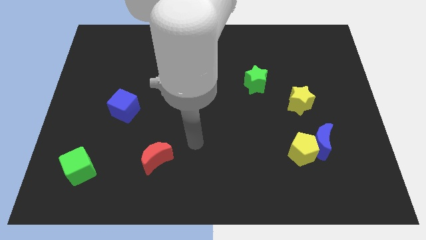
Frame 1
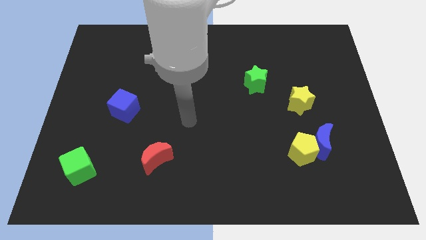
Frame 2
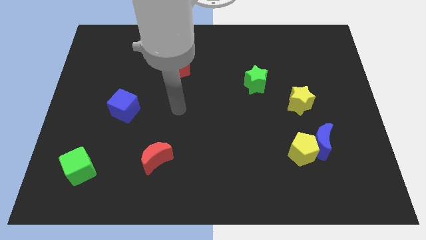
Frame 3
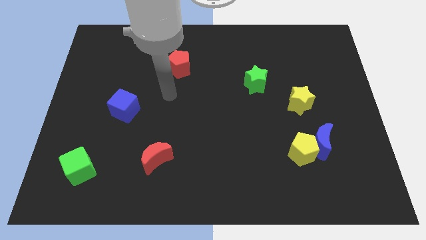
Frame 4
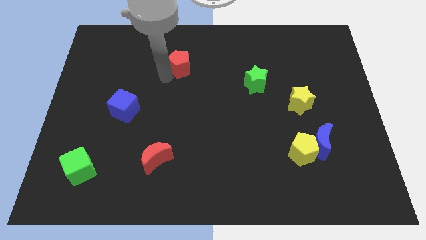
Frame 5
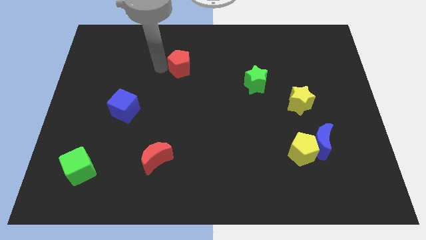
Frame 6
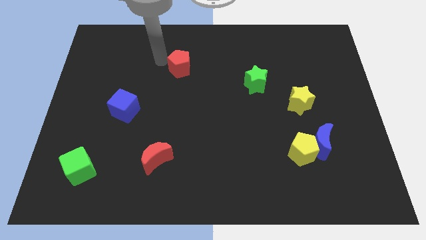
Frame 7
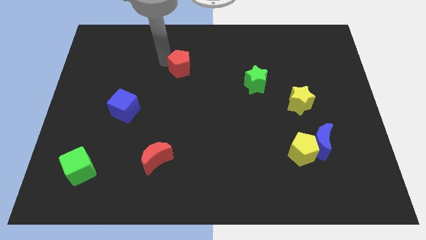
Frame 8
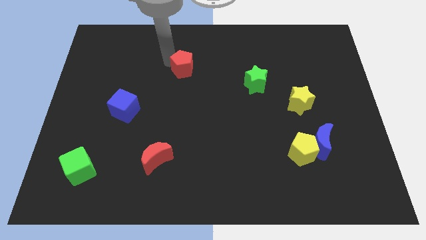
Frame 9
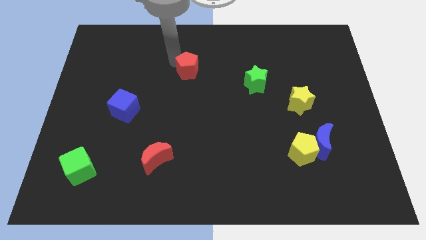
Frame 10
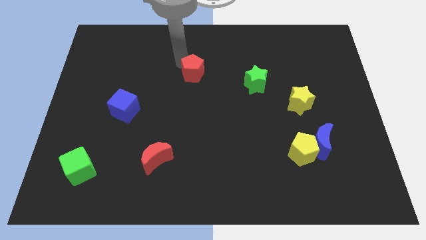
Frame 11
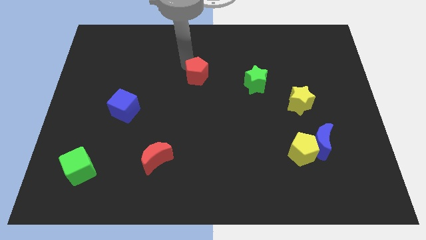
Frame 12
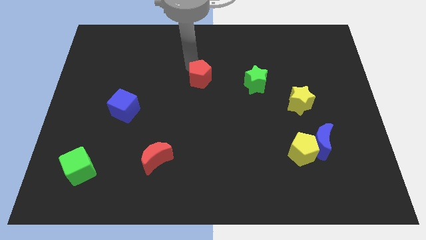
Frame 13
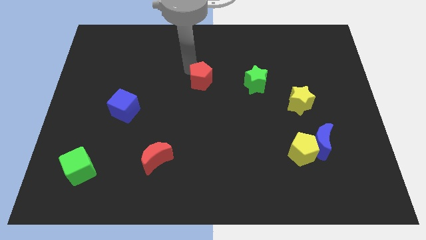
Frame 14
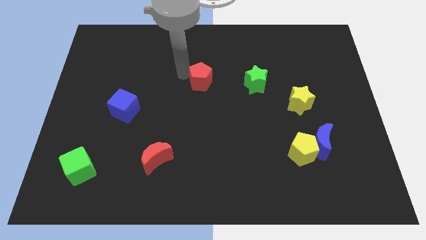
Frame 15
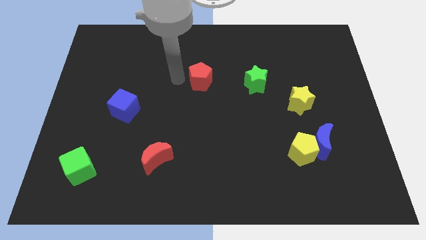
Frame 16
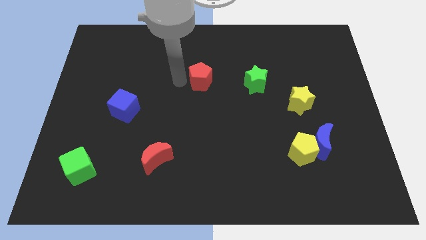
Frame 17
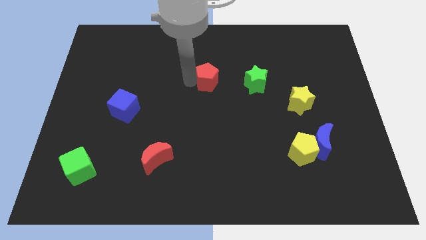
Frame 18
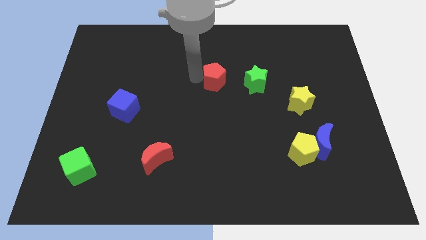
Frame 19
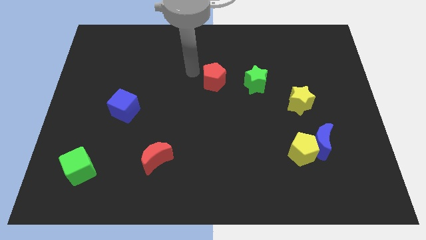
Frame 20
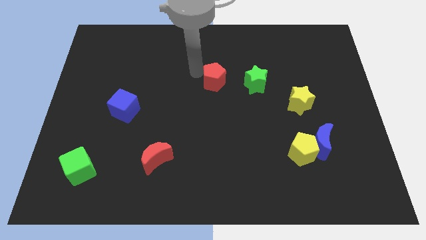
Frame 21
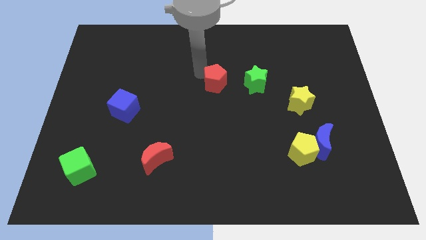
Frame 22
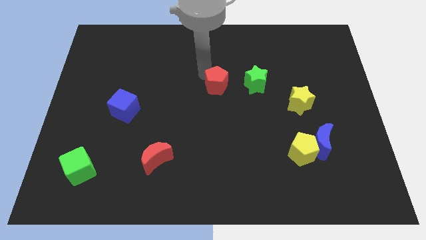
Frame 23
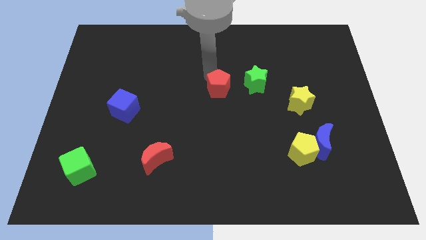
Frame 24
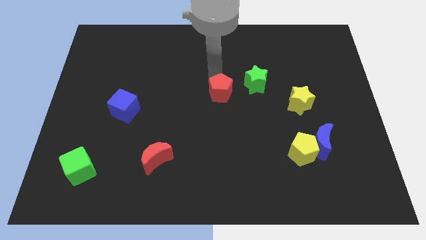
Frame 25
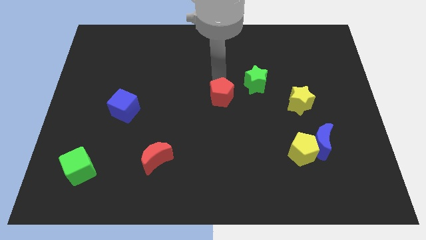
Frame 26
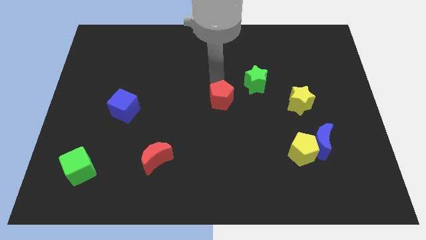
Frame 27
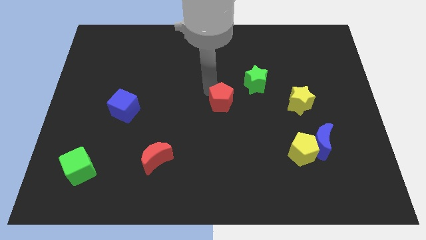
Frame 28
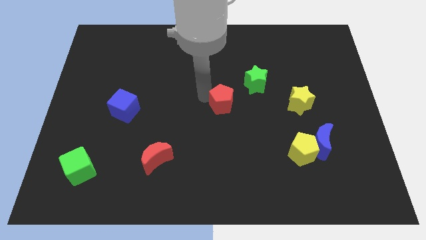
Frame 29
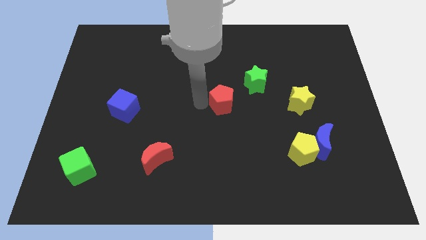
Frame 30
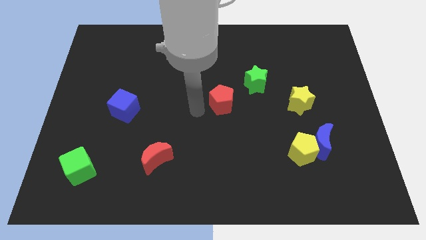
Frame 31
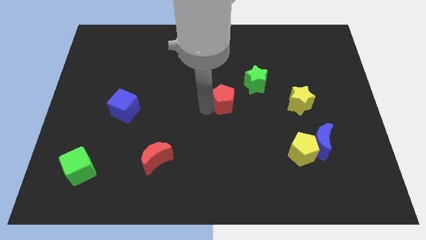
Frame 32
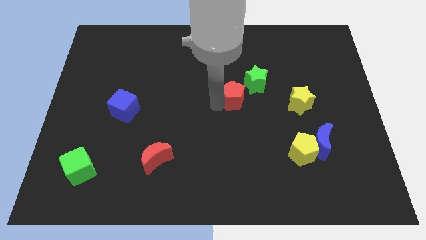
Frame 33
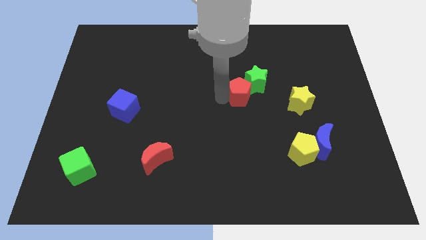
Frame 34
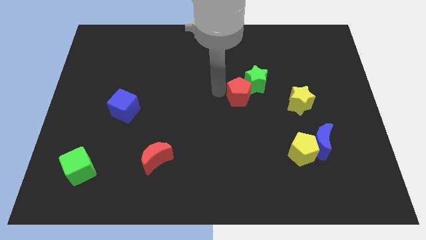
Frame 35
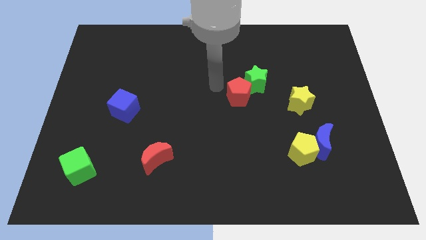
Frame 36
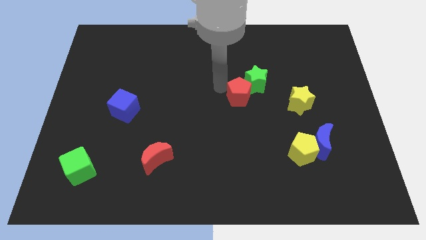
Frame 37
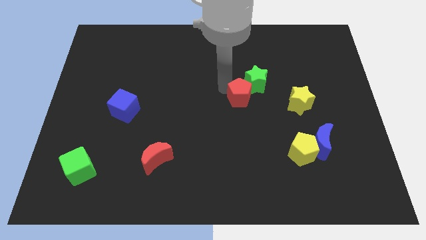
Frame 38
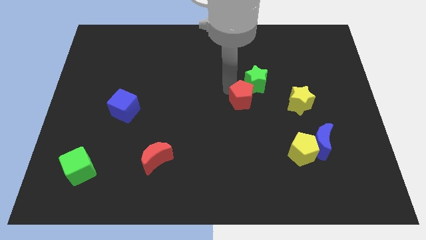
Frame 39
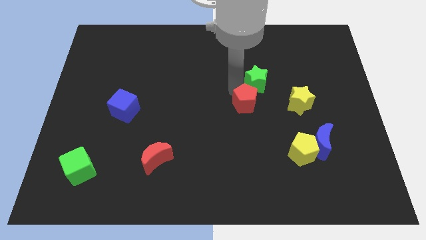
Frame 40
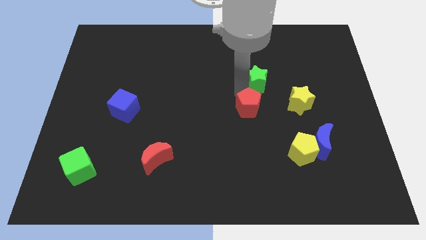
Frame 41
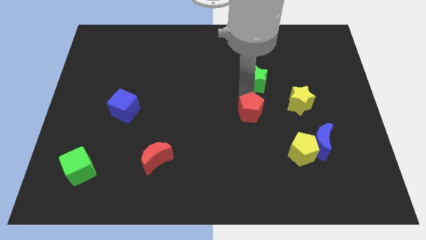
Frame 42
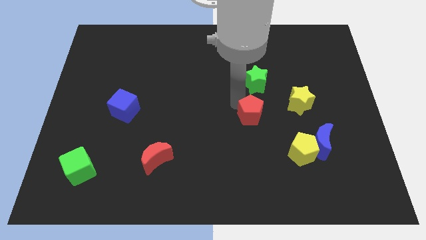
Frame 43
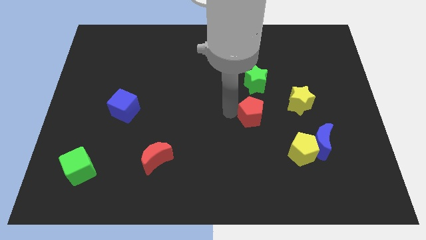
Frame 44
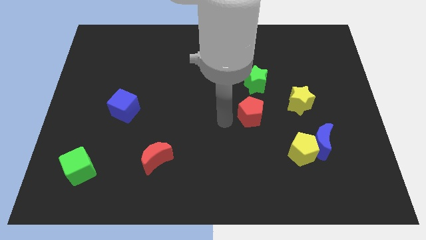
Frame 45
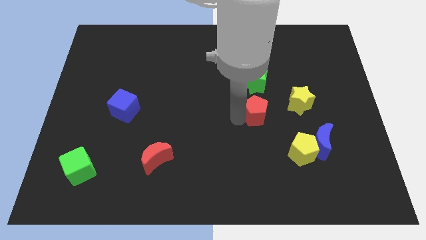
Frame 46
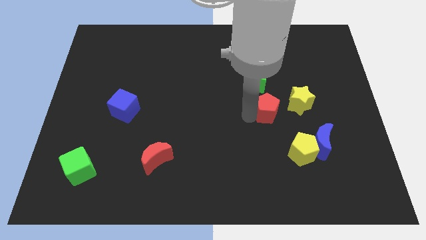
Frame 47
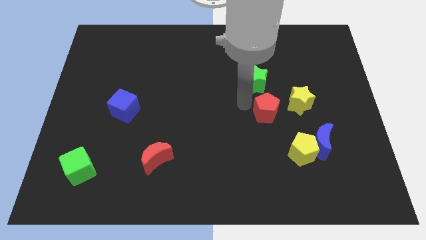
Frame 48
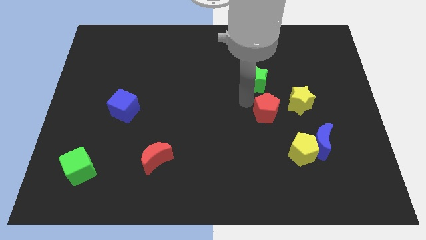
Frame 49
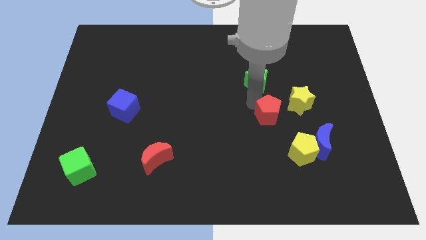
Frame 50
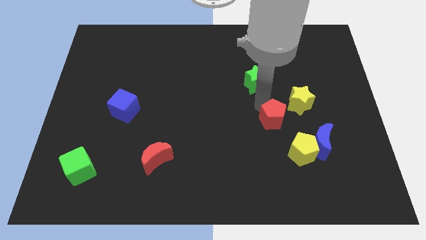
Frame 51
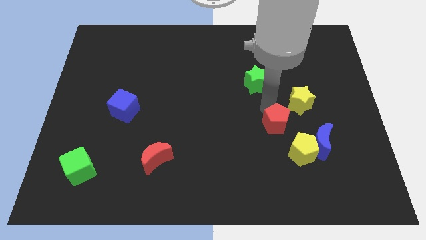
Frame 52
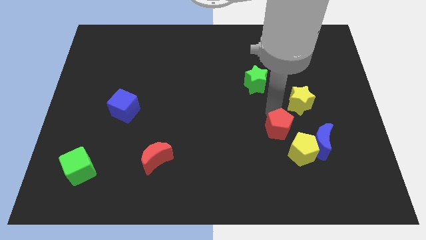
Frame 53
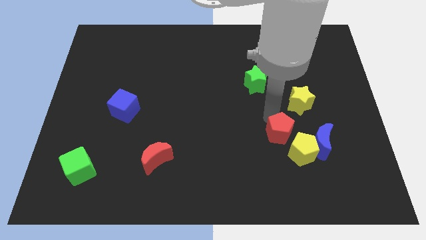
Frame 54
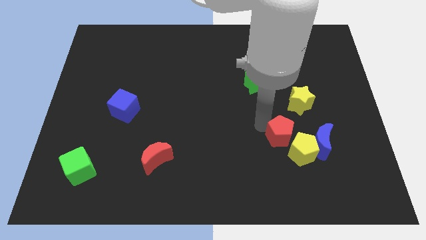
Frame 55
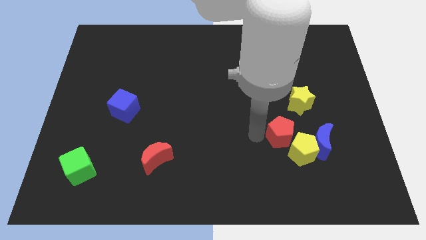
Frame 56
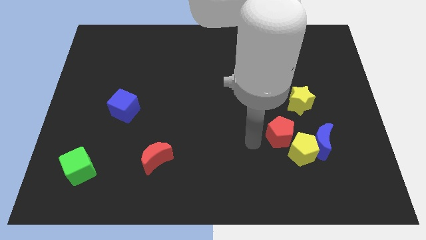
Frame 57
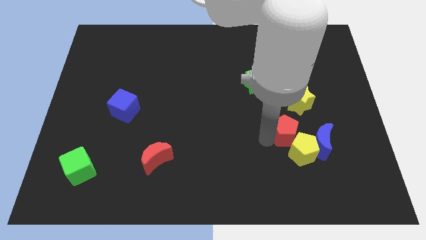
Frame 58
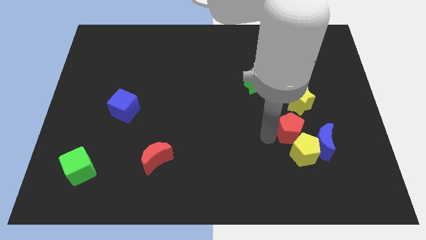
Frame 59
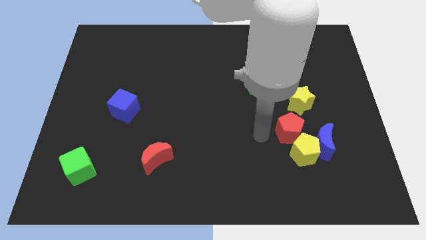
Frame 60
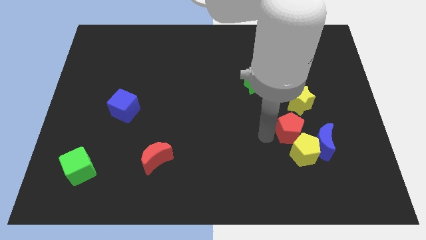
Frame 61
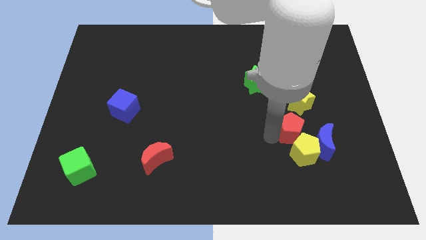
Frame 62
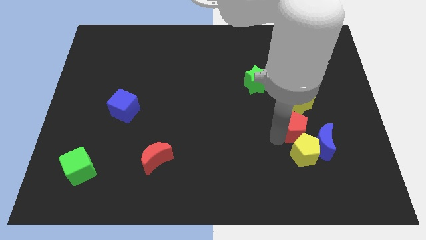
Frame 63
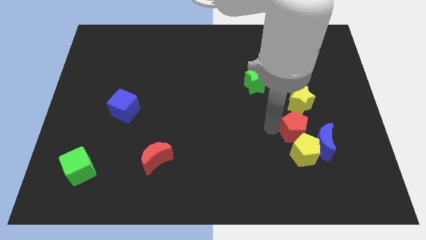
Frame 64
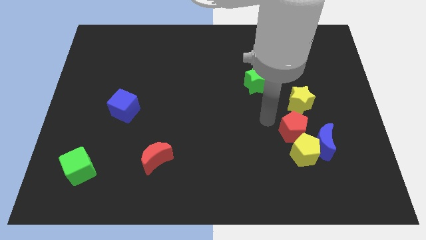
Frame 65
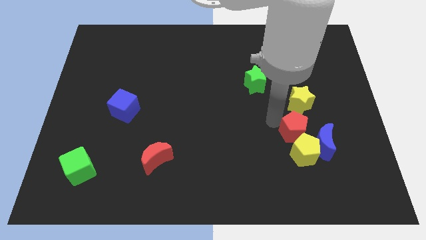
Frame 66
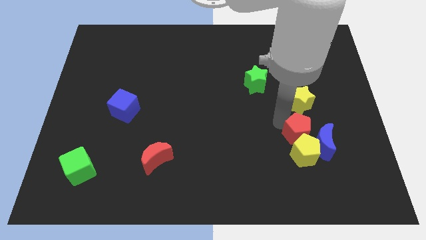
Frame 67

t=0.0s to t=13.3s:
slide the red pentagon close to the blue moon

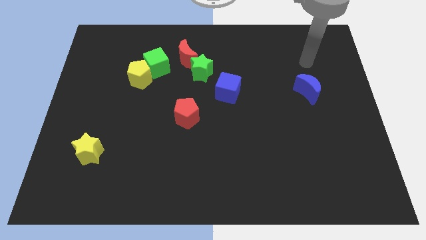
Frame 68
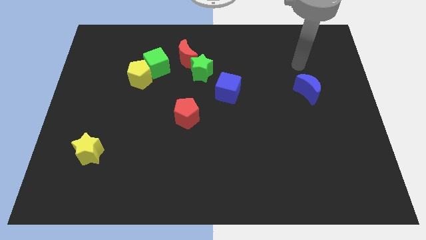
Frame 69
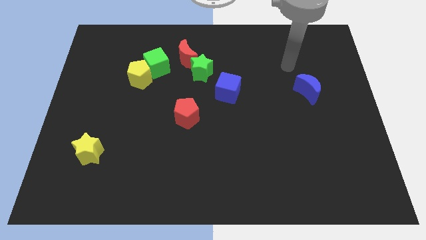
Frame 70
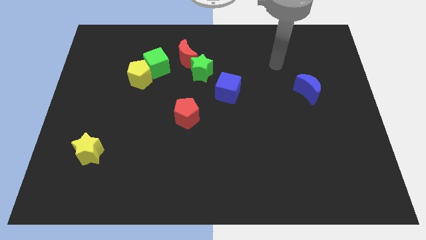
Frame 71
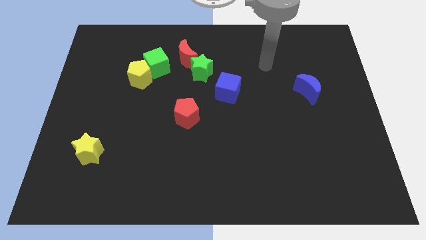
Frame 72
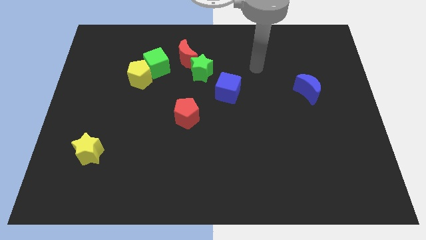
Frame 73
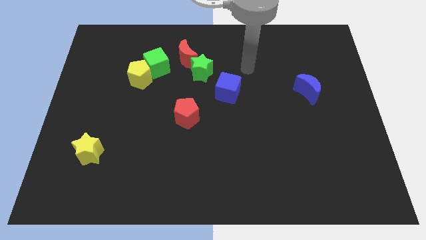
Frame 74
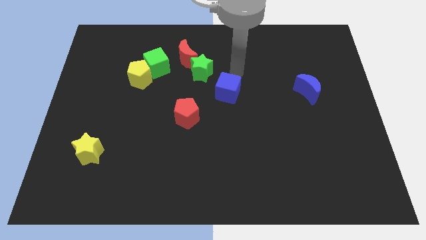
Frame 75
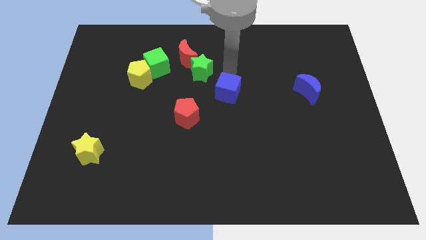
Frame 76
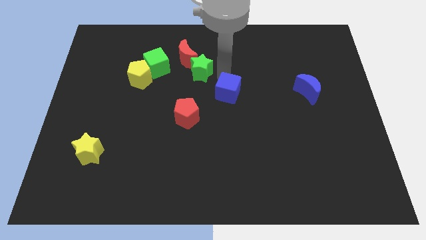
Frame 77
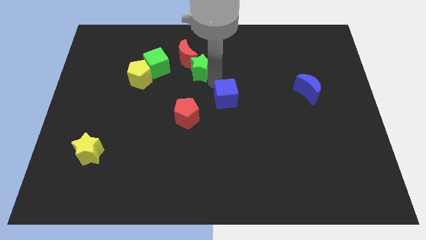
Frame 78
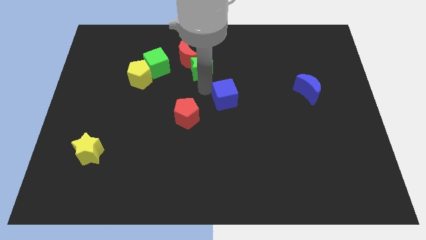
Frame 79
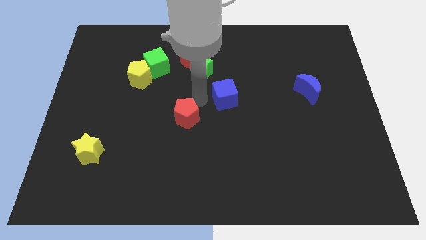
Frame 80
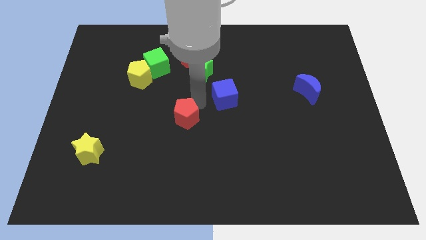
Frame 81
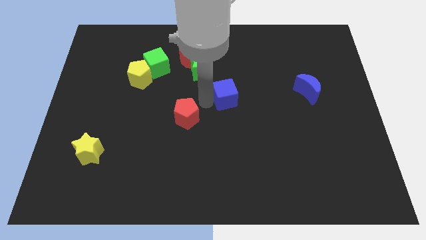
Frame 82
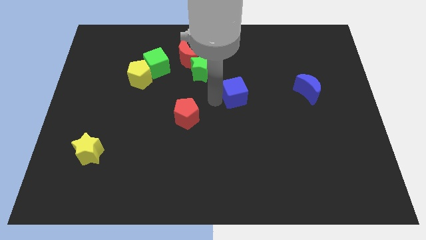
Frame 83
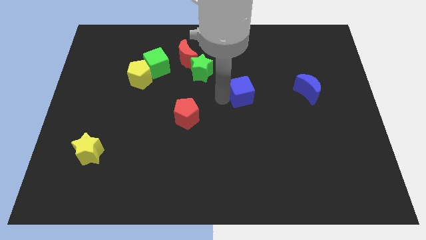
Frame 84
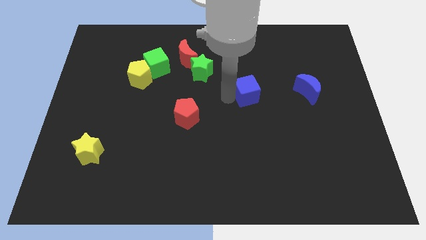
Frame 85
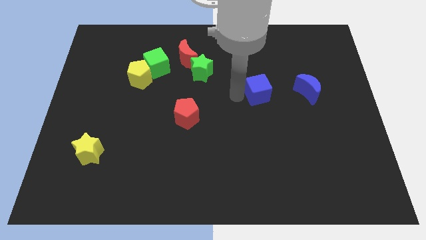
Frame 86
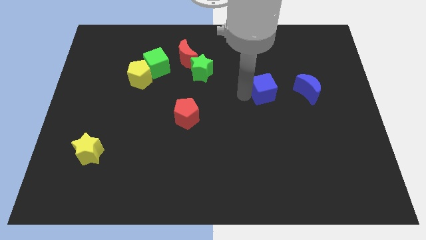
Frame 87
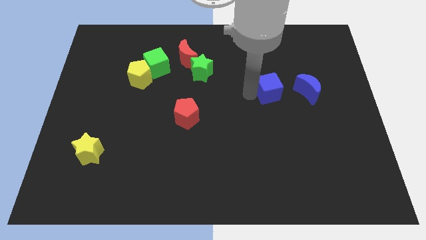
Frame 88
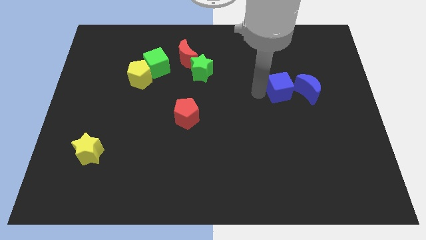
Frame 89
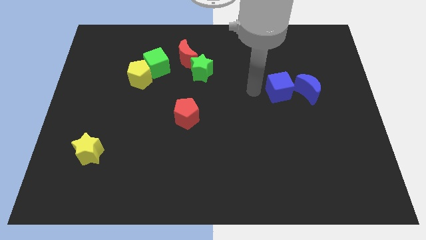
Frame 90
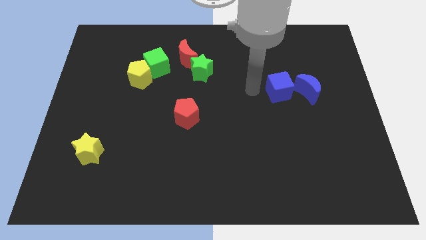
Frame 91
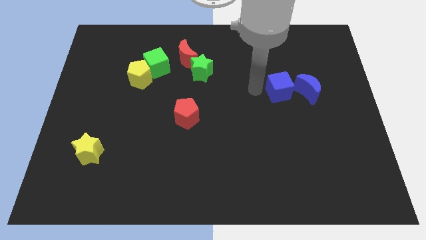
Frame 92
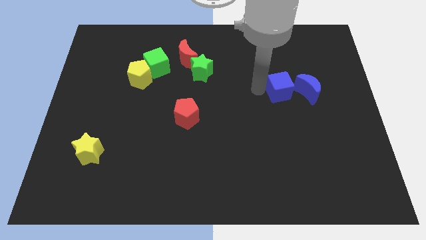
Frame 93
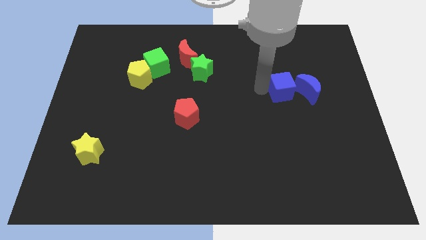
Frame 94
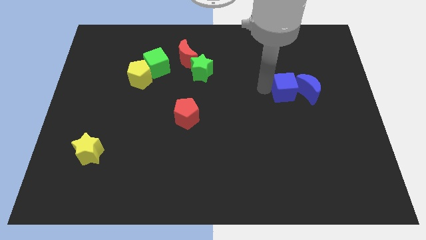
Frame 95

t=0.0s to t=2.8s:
move the blue cube close to the blue moon
